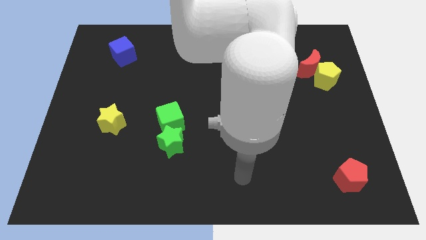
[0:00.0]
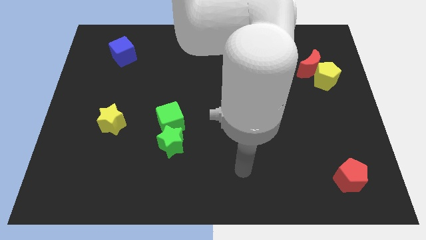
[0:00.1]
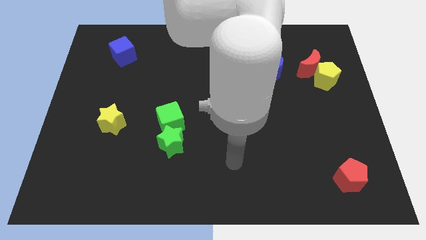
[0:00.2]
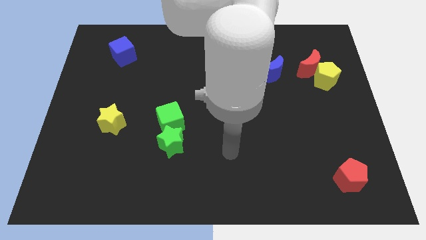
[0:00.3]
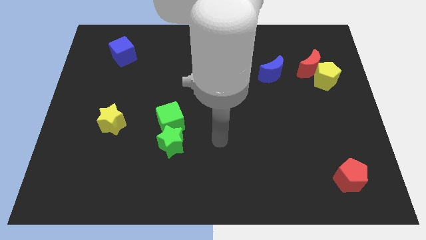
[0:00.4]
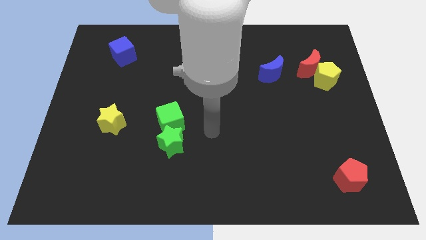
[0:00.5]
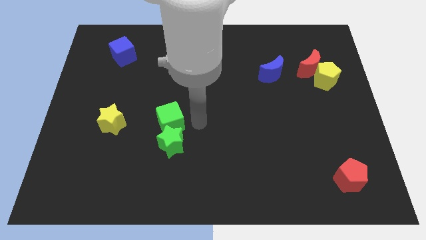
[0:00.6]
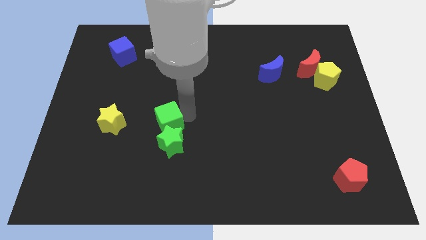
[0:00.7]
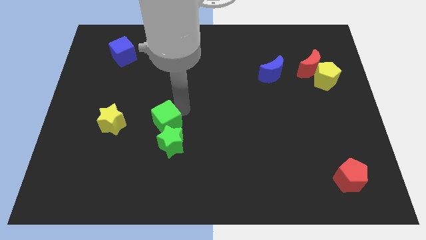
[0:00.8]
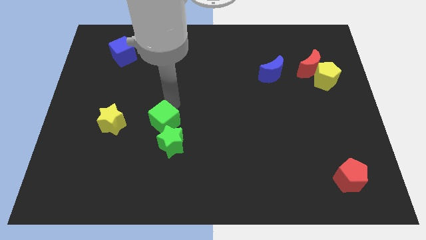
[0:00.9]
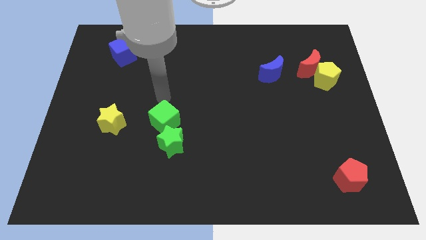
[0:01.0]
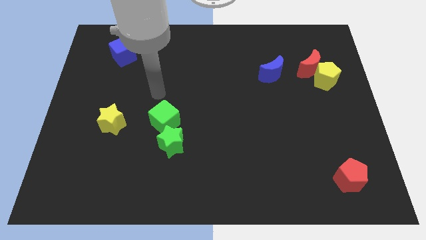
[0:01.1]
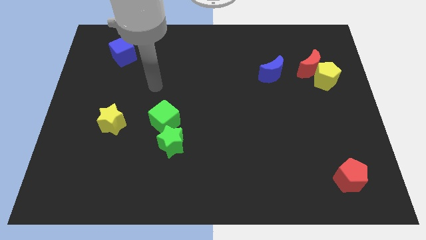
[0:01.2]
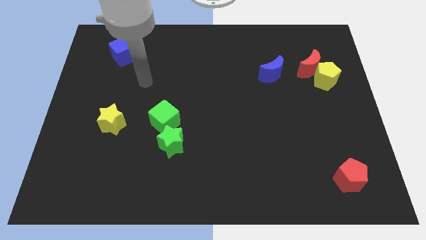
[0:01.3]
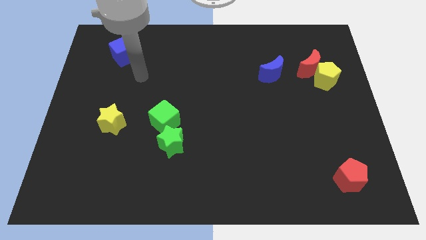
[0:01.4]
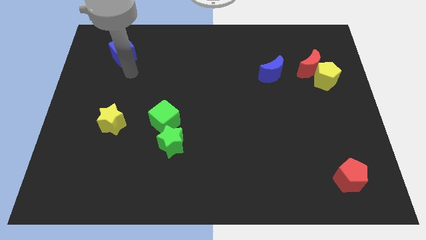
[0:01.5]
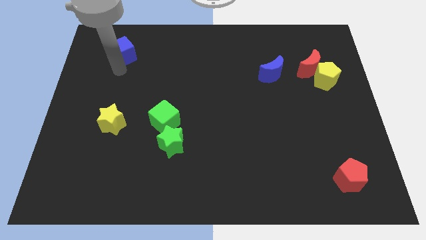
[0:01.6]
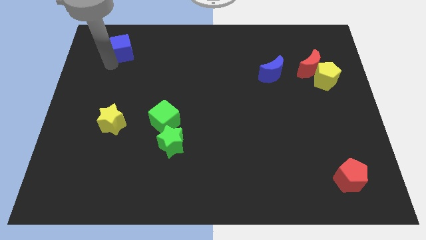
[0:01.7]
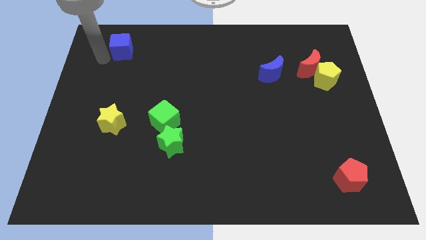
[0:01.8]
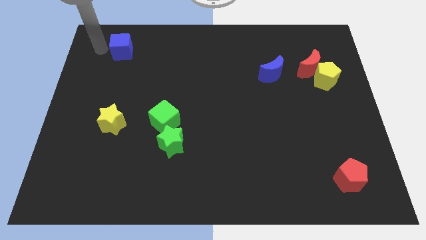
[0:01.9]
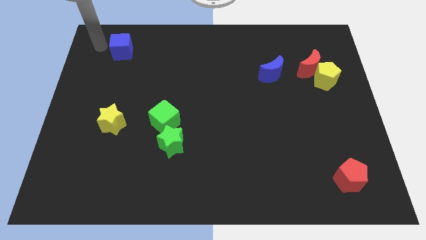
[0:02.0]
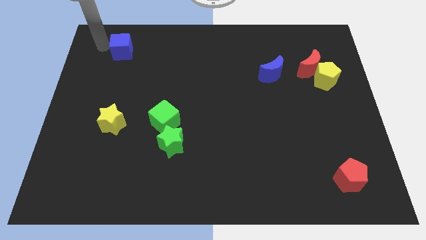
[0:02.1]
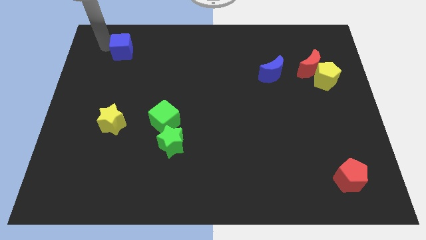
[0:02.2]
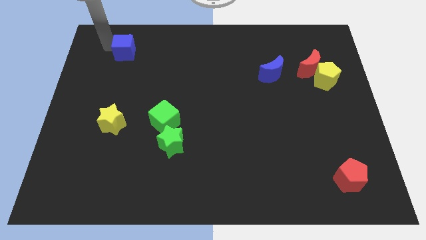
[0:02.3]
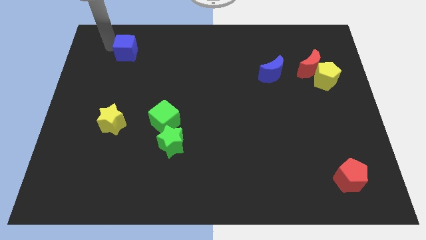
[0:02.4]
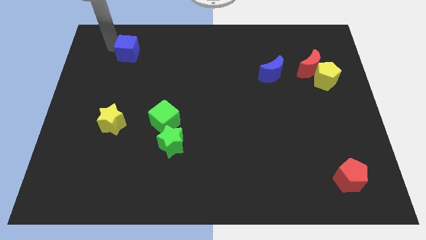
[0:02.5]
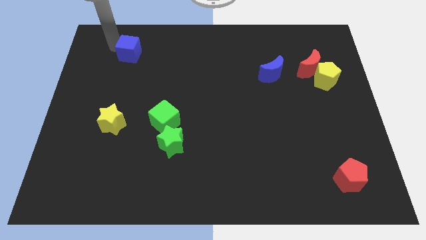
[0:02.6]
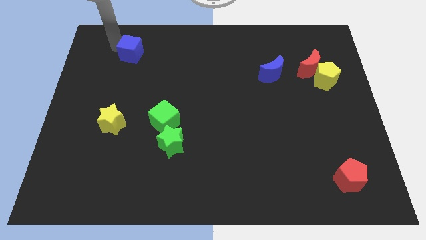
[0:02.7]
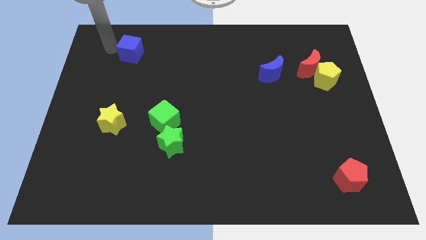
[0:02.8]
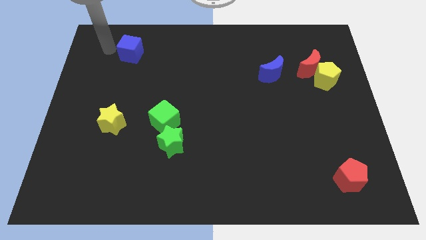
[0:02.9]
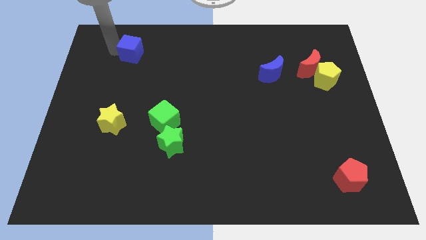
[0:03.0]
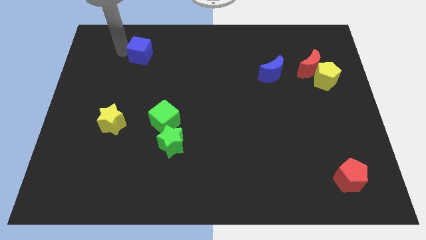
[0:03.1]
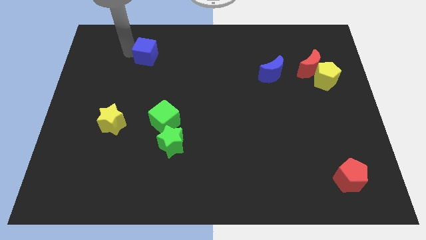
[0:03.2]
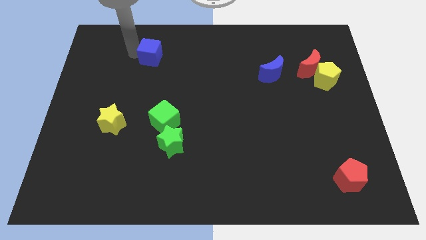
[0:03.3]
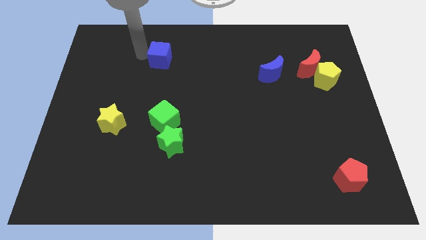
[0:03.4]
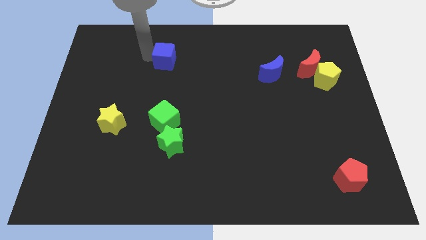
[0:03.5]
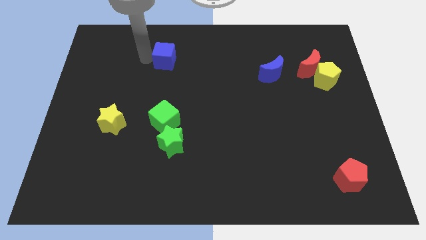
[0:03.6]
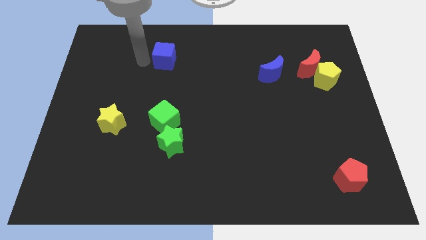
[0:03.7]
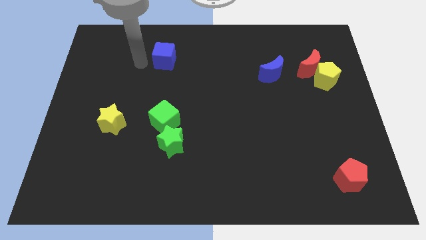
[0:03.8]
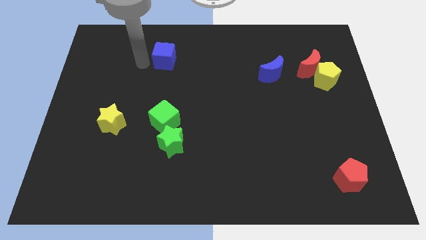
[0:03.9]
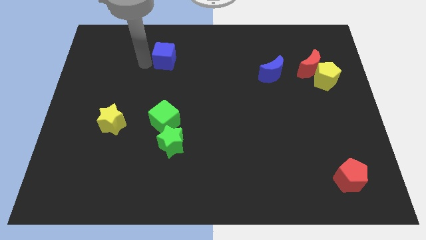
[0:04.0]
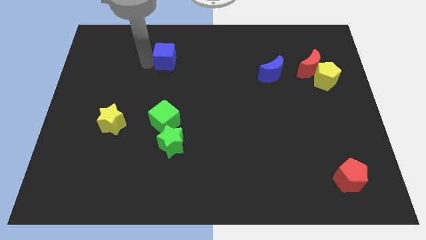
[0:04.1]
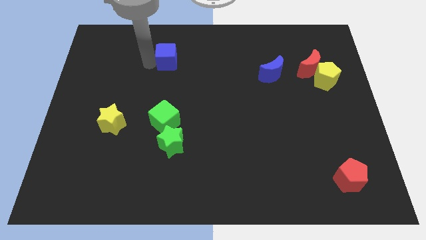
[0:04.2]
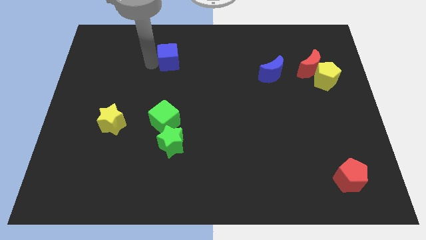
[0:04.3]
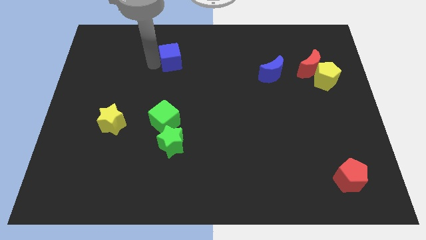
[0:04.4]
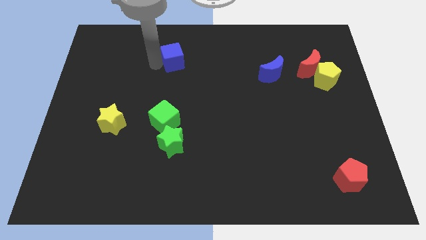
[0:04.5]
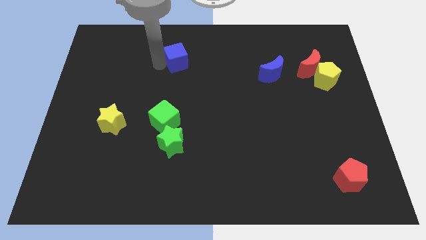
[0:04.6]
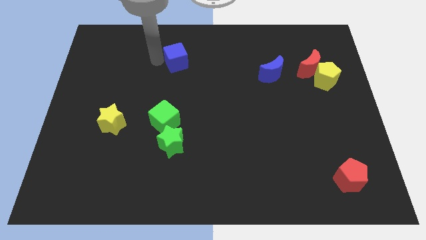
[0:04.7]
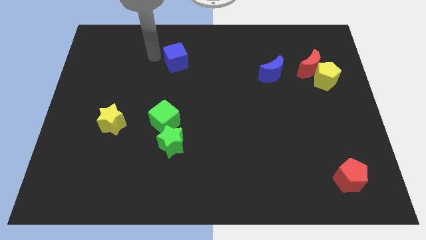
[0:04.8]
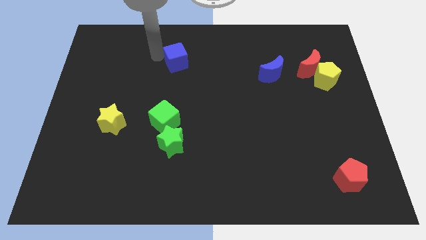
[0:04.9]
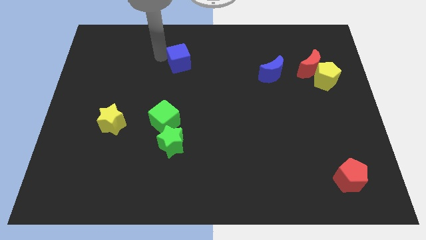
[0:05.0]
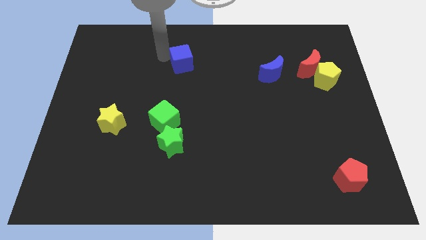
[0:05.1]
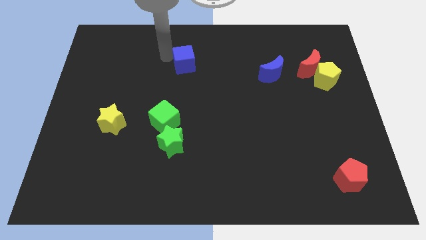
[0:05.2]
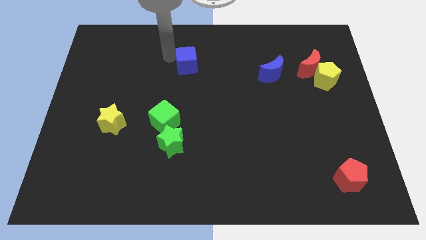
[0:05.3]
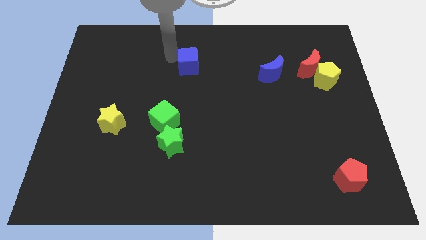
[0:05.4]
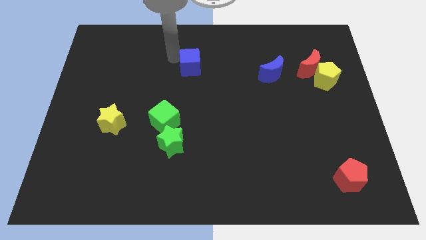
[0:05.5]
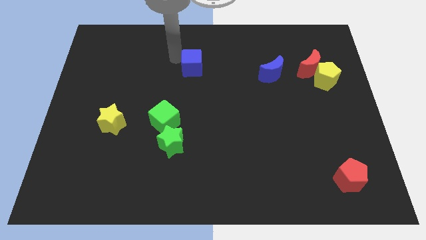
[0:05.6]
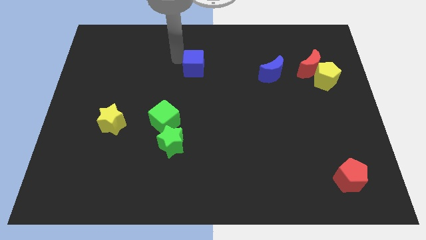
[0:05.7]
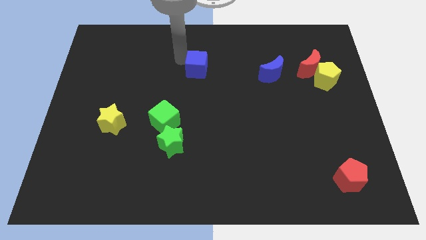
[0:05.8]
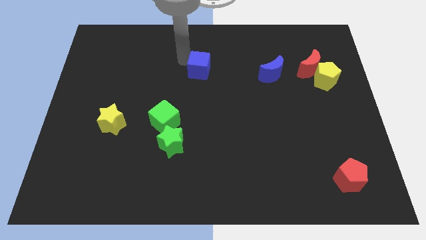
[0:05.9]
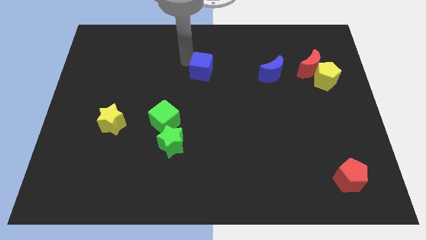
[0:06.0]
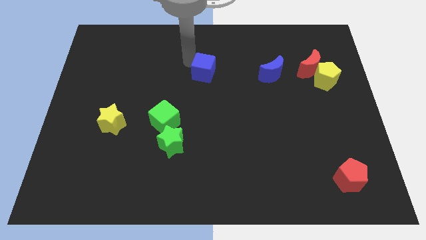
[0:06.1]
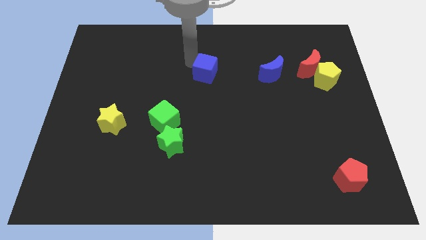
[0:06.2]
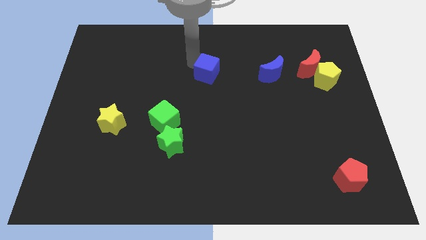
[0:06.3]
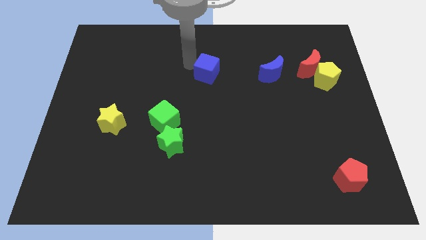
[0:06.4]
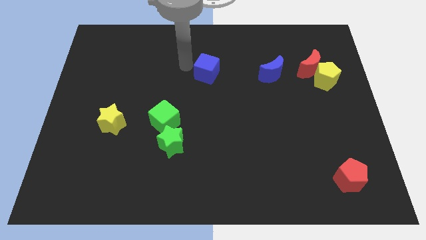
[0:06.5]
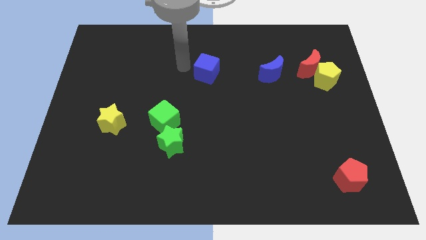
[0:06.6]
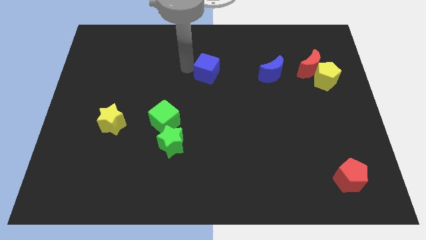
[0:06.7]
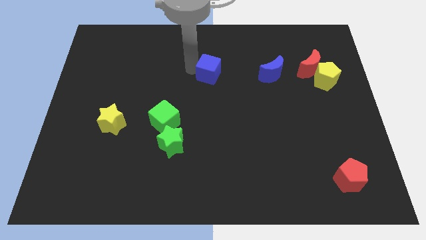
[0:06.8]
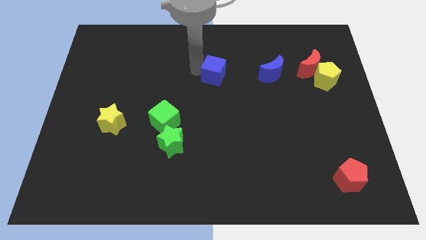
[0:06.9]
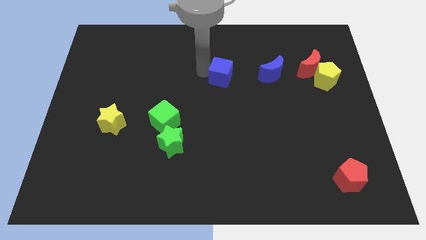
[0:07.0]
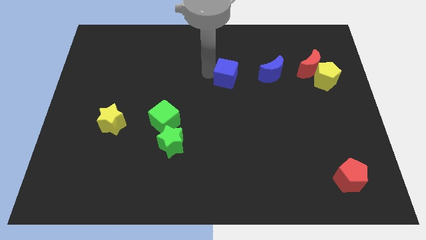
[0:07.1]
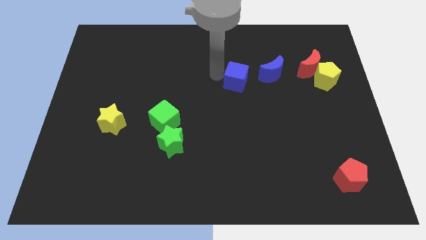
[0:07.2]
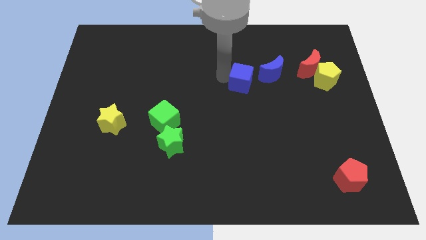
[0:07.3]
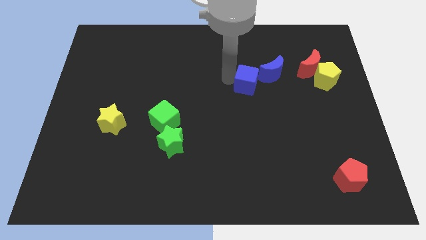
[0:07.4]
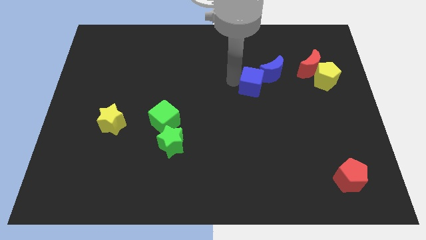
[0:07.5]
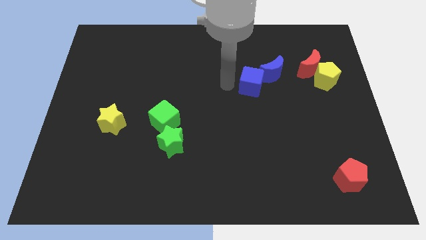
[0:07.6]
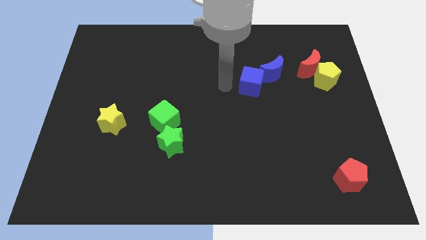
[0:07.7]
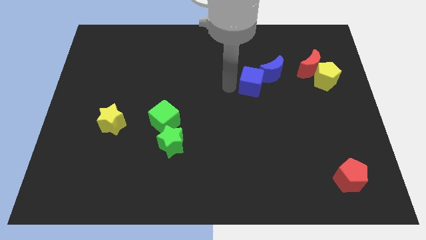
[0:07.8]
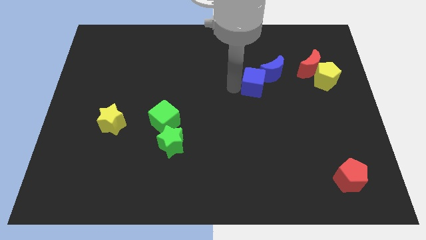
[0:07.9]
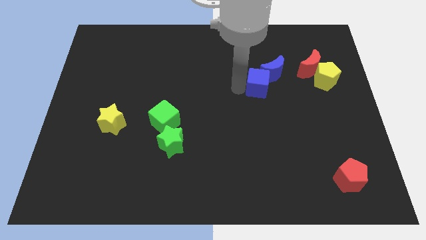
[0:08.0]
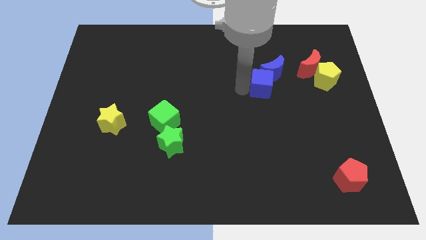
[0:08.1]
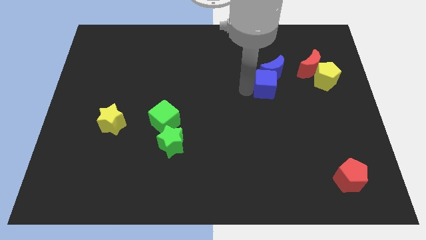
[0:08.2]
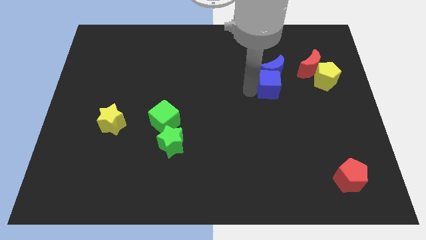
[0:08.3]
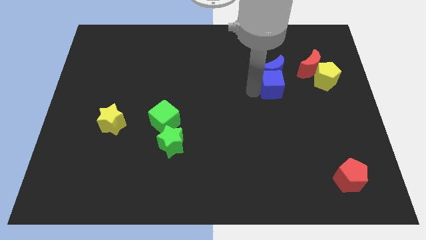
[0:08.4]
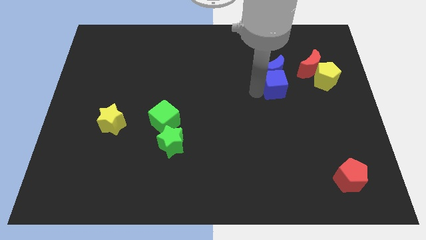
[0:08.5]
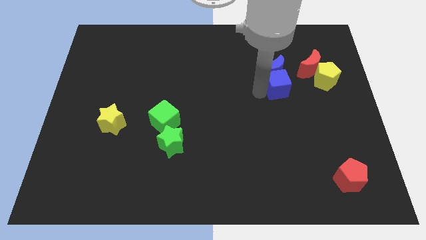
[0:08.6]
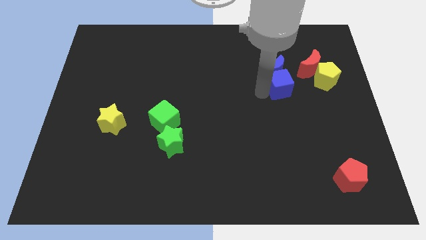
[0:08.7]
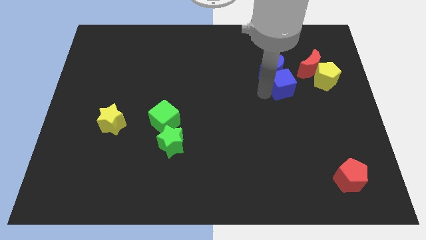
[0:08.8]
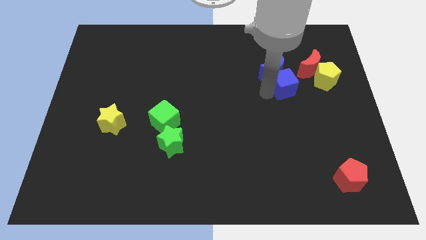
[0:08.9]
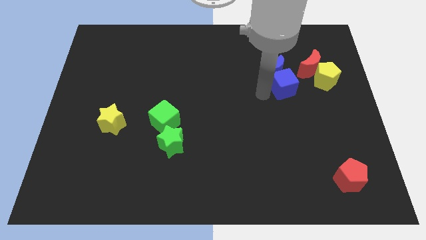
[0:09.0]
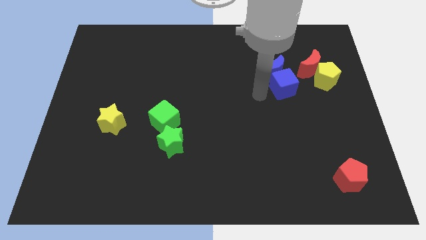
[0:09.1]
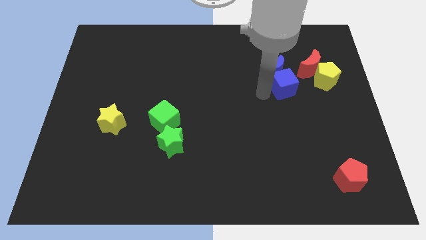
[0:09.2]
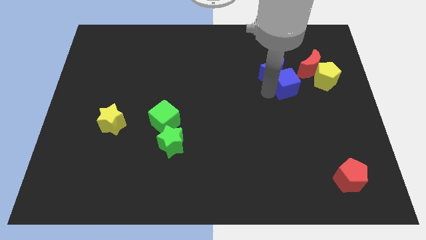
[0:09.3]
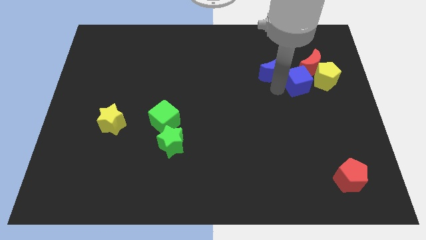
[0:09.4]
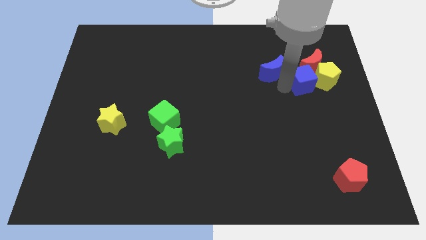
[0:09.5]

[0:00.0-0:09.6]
move the blue cube towards the yellow pentagon
